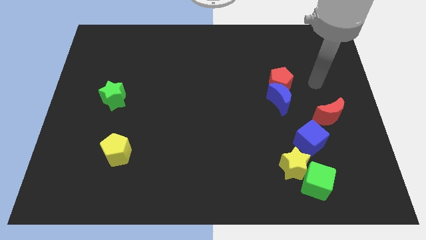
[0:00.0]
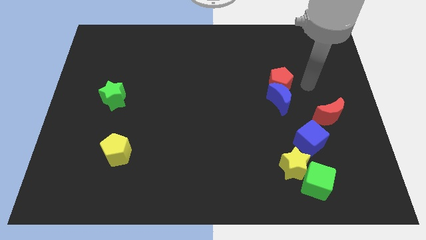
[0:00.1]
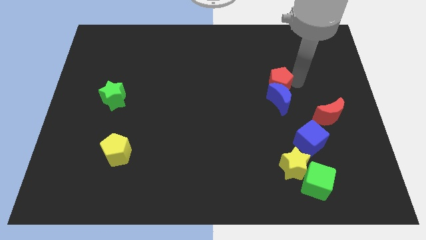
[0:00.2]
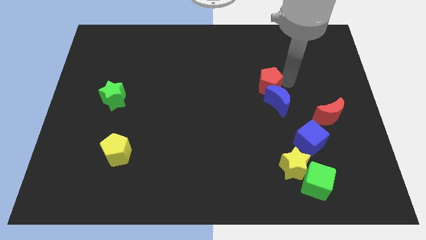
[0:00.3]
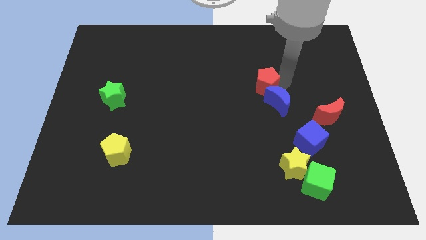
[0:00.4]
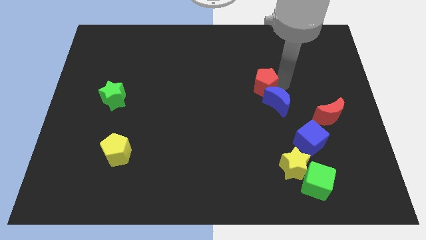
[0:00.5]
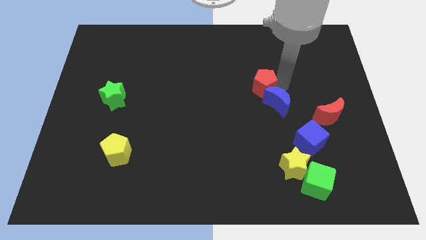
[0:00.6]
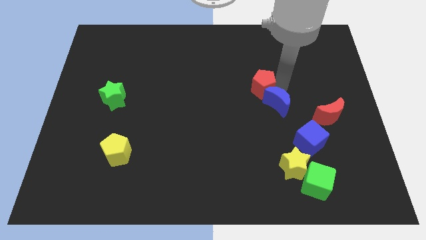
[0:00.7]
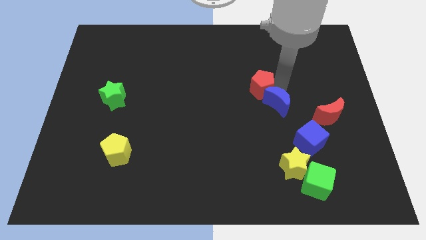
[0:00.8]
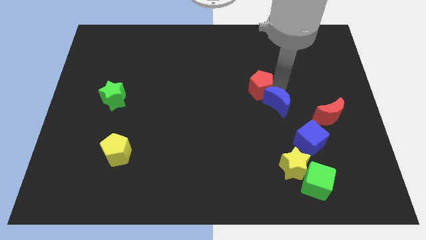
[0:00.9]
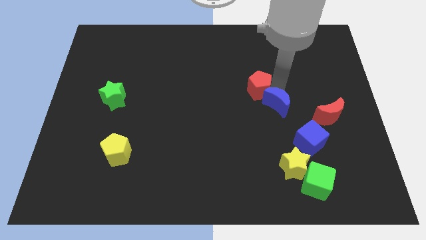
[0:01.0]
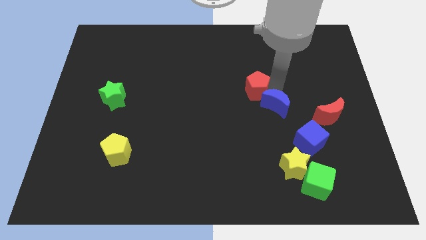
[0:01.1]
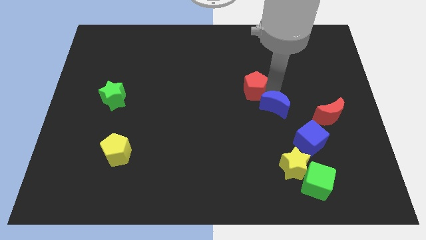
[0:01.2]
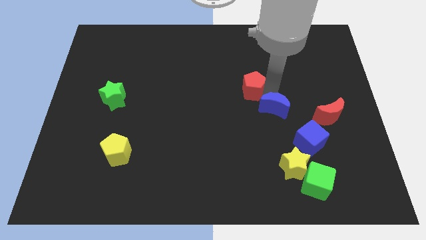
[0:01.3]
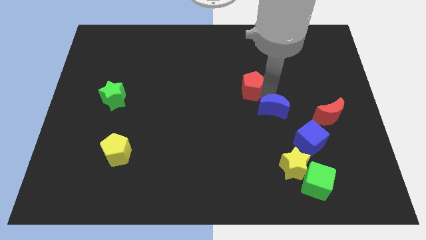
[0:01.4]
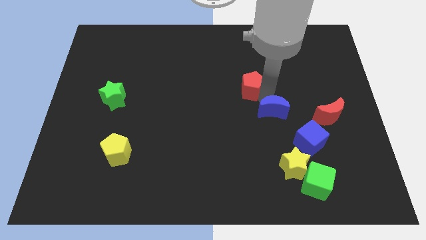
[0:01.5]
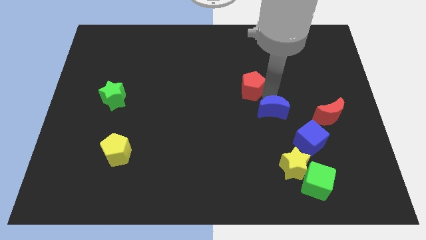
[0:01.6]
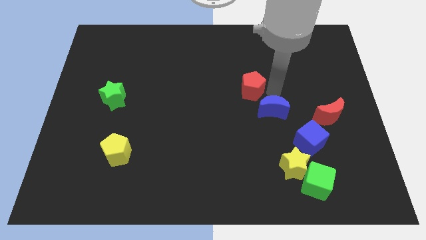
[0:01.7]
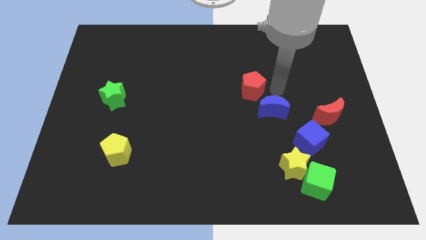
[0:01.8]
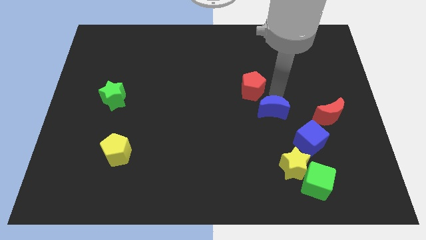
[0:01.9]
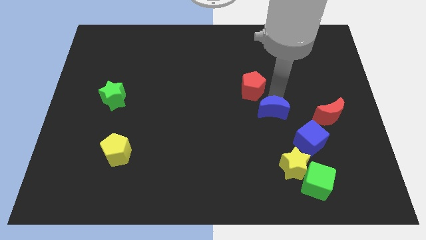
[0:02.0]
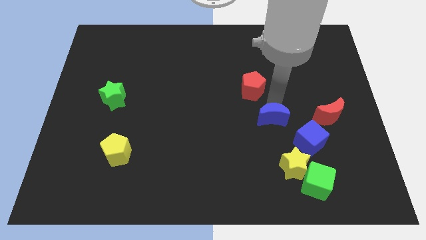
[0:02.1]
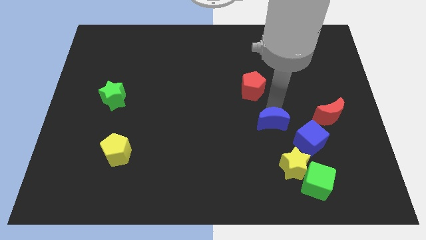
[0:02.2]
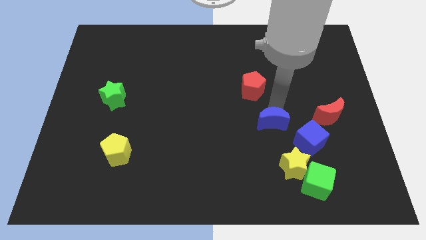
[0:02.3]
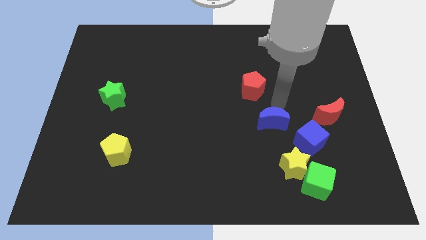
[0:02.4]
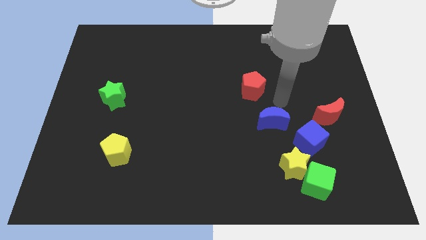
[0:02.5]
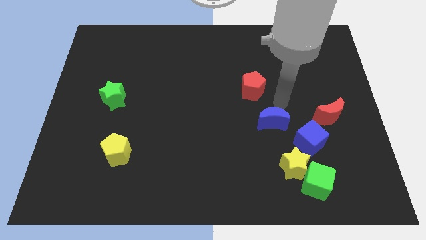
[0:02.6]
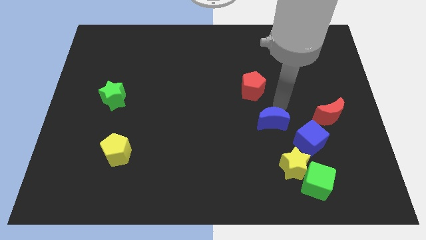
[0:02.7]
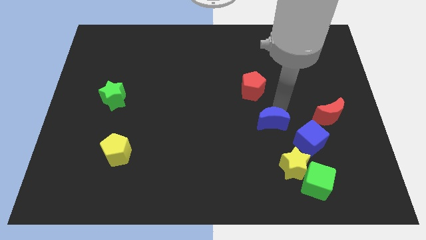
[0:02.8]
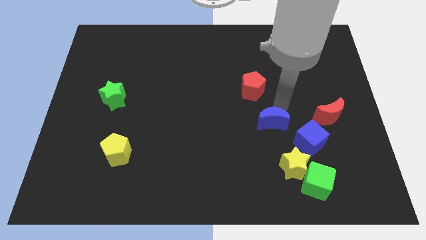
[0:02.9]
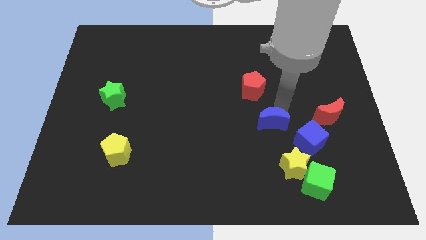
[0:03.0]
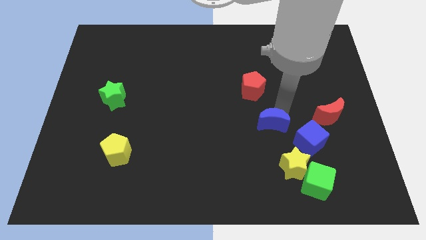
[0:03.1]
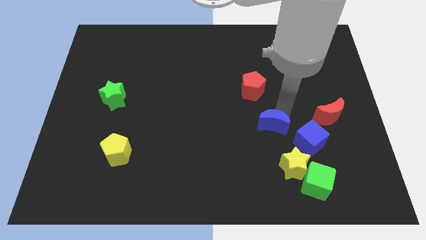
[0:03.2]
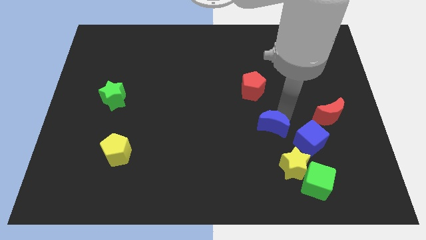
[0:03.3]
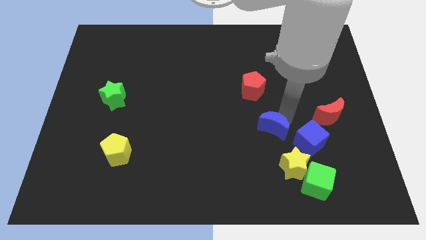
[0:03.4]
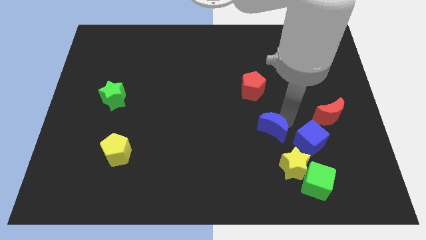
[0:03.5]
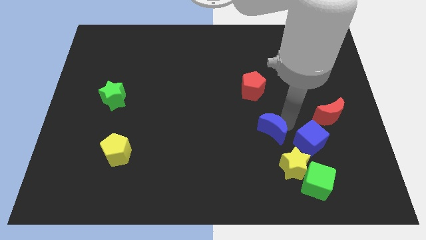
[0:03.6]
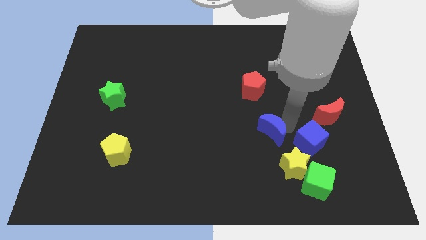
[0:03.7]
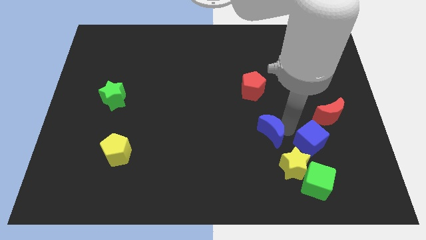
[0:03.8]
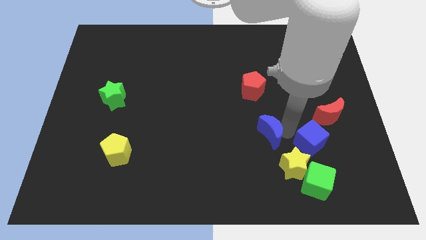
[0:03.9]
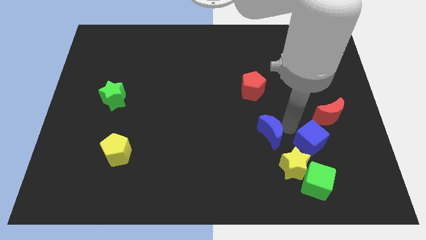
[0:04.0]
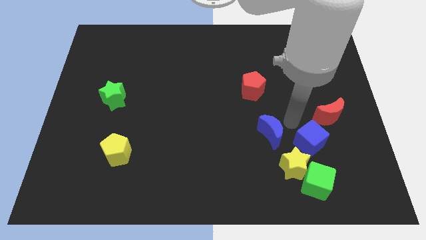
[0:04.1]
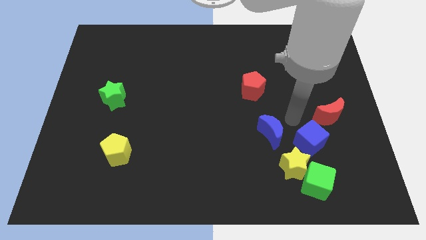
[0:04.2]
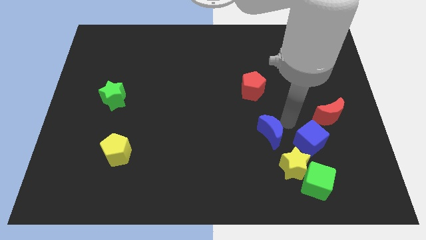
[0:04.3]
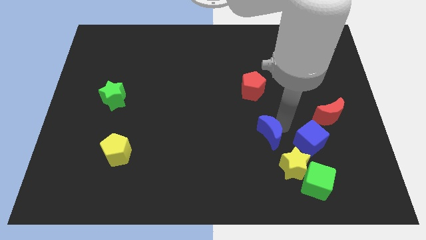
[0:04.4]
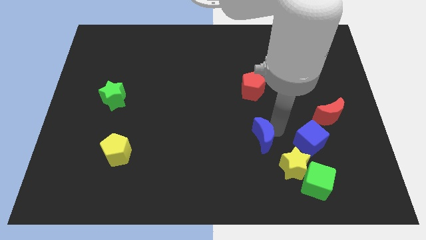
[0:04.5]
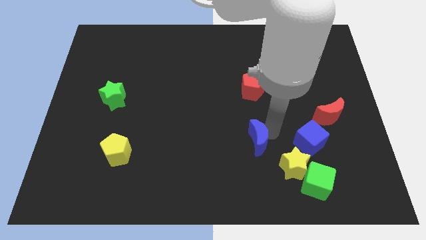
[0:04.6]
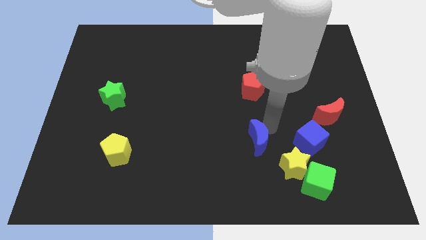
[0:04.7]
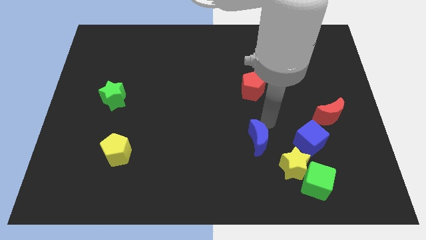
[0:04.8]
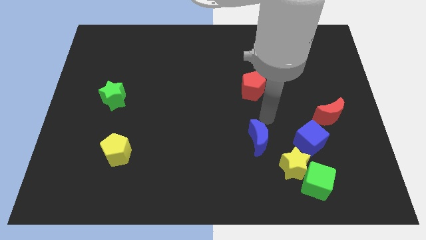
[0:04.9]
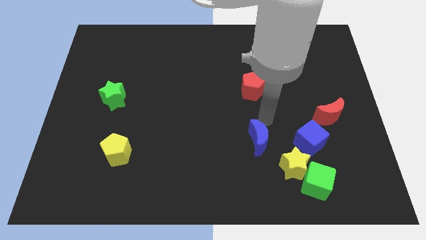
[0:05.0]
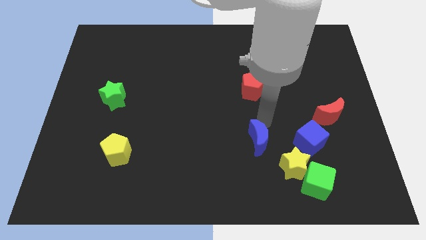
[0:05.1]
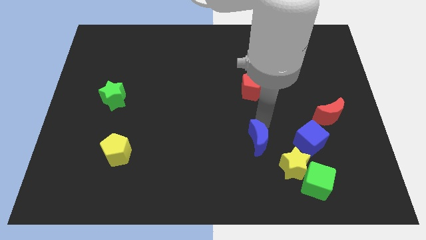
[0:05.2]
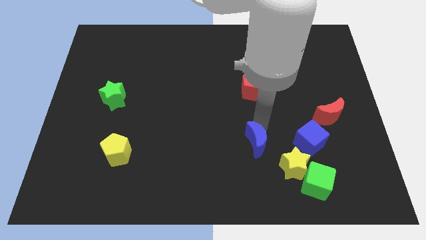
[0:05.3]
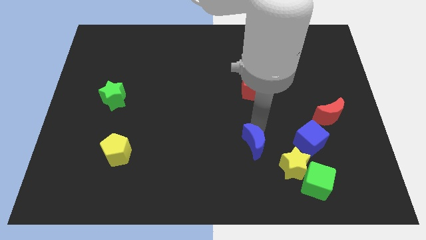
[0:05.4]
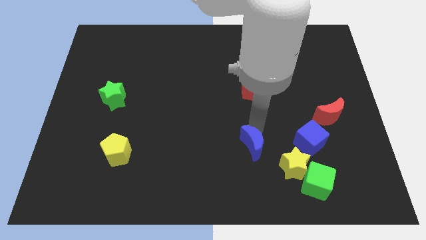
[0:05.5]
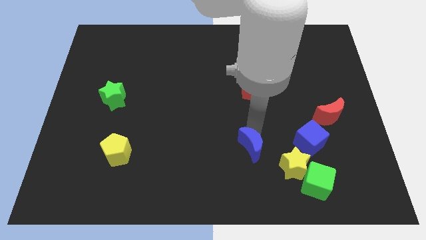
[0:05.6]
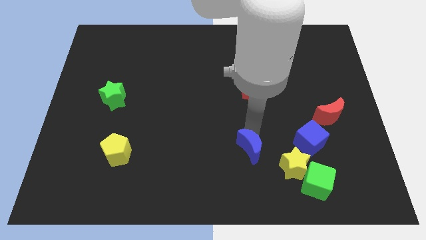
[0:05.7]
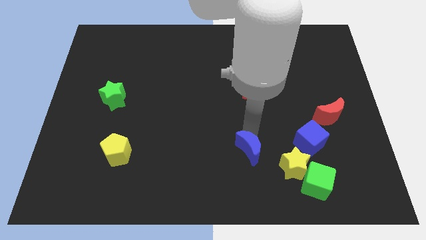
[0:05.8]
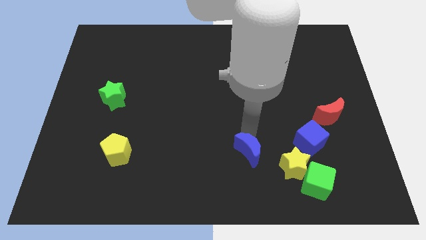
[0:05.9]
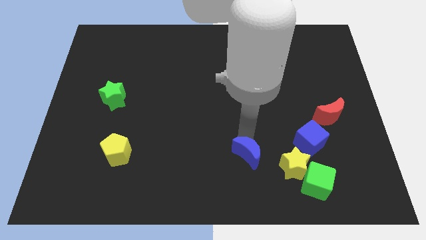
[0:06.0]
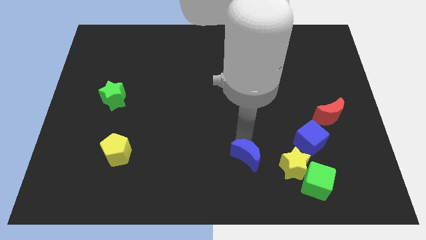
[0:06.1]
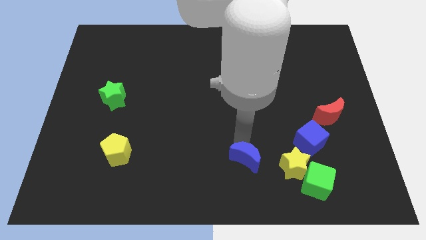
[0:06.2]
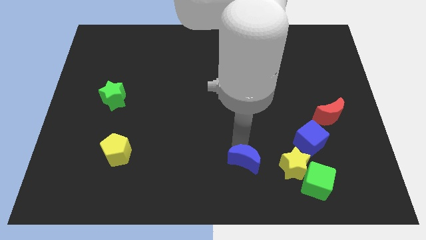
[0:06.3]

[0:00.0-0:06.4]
push the blue moon to the bottom side
